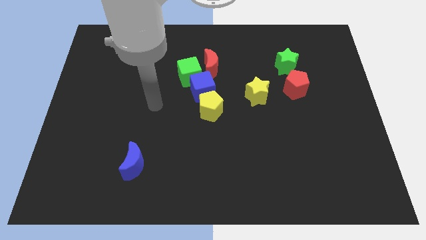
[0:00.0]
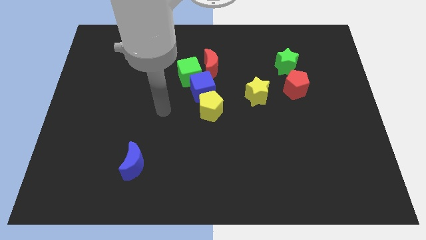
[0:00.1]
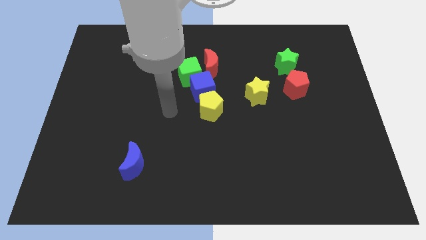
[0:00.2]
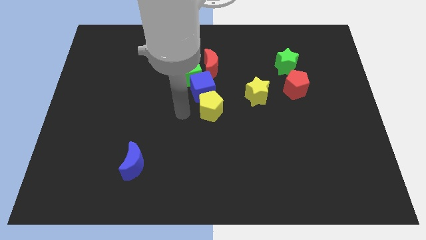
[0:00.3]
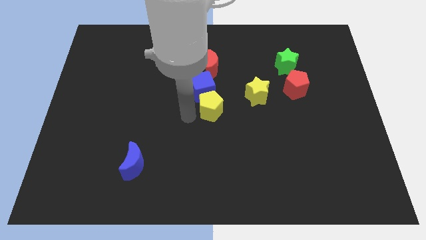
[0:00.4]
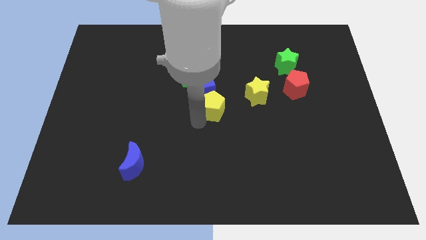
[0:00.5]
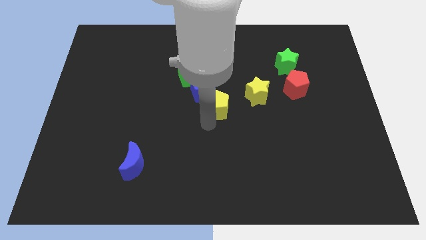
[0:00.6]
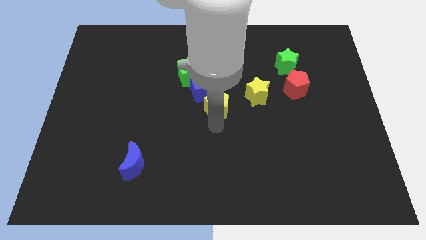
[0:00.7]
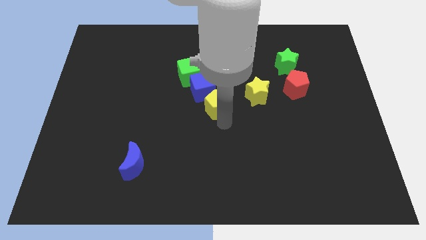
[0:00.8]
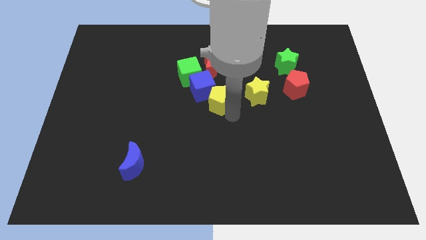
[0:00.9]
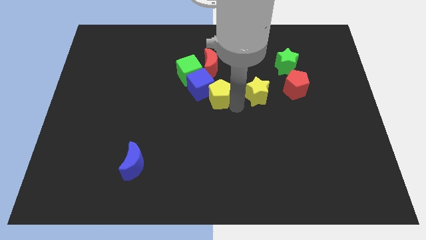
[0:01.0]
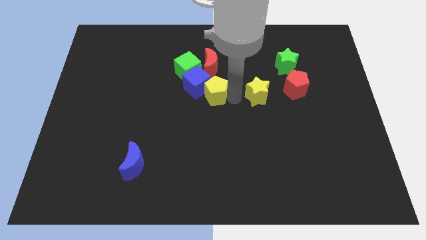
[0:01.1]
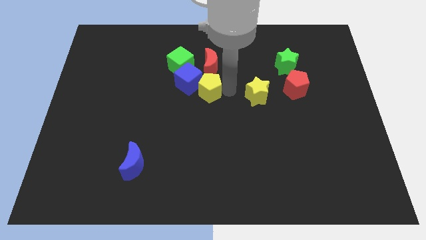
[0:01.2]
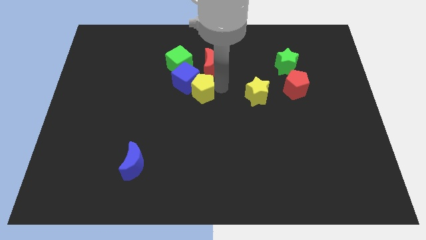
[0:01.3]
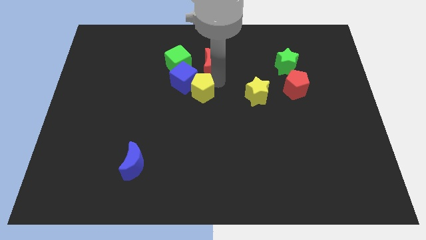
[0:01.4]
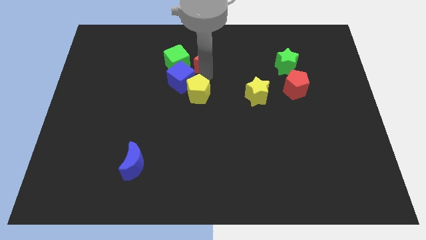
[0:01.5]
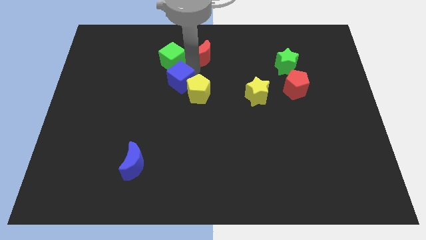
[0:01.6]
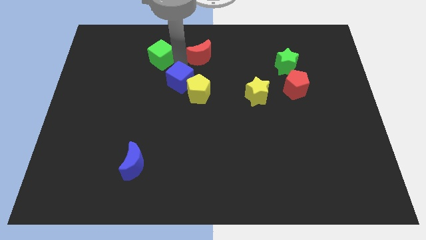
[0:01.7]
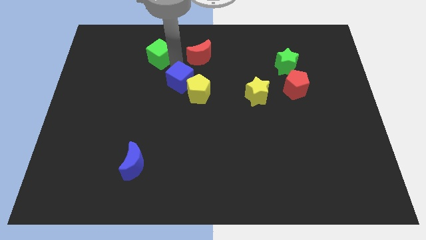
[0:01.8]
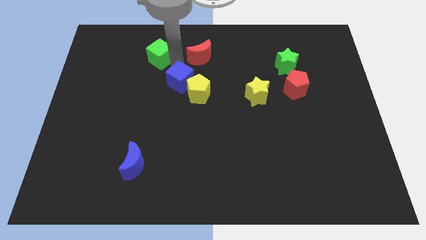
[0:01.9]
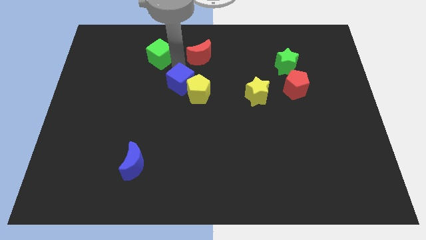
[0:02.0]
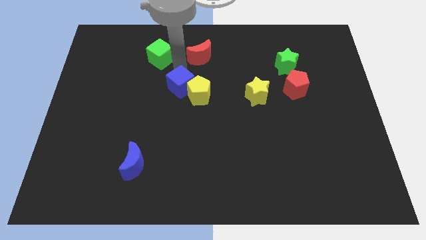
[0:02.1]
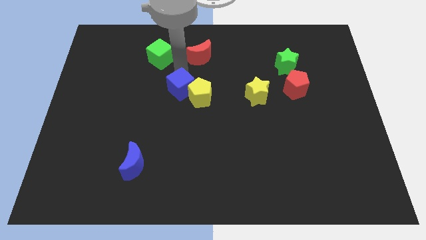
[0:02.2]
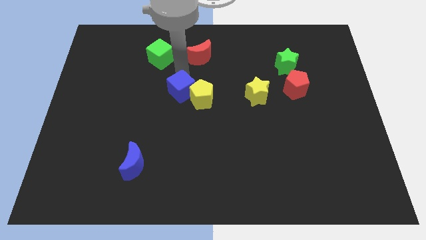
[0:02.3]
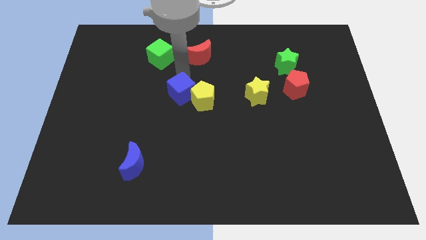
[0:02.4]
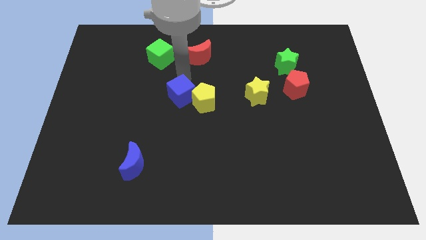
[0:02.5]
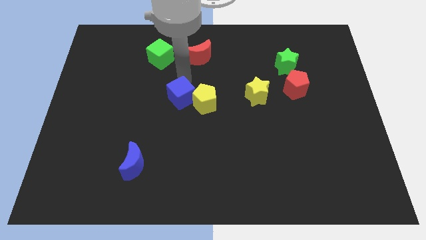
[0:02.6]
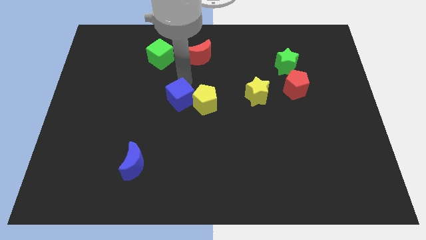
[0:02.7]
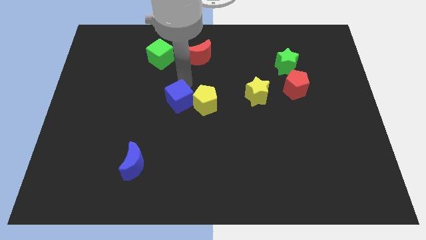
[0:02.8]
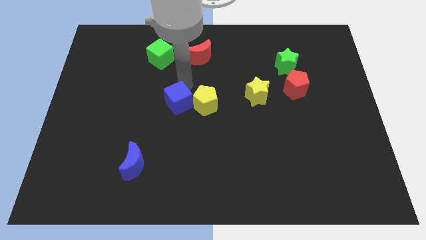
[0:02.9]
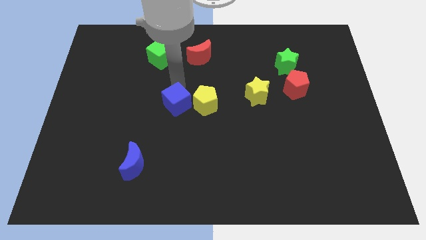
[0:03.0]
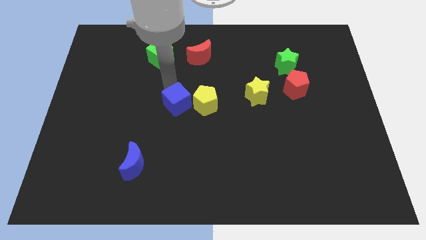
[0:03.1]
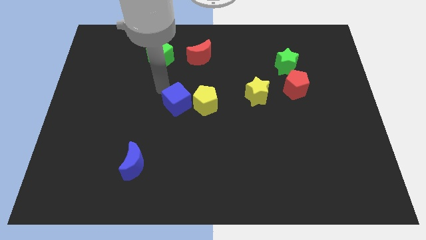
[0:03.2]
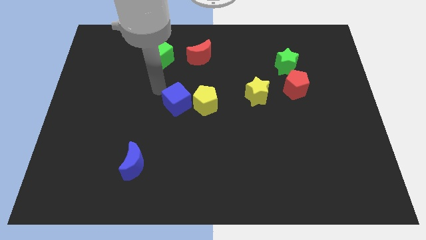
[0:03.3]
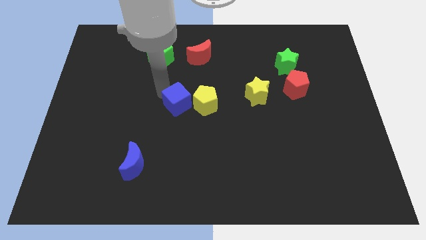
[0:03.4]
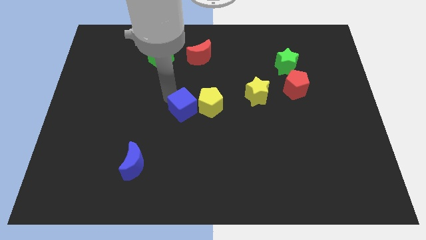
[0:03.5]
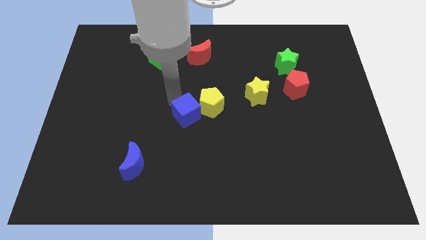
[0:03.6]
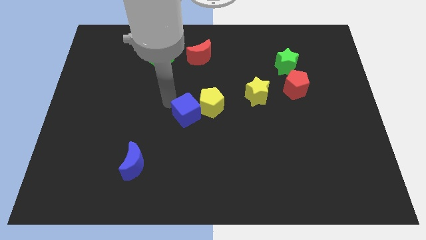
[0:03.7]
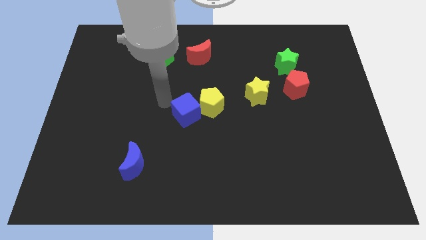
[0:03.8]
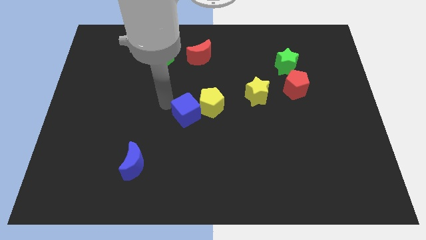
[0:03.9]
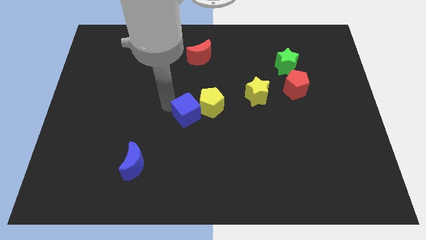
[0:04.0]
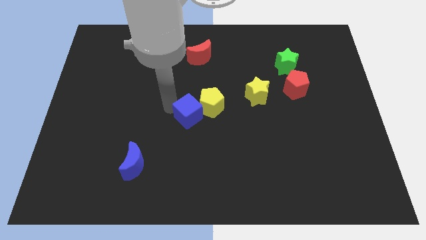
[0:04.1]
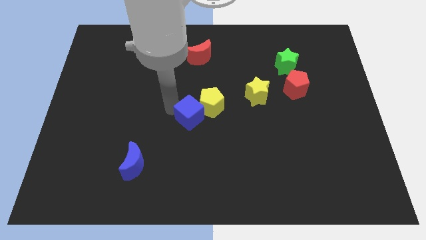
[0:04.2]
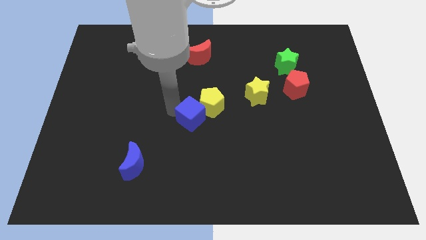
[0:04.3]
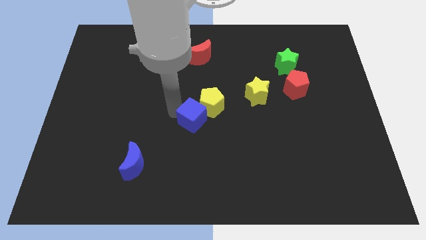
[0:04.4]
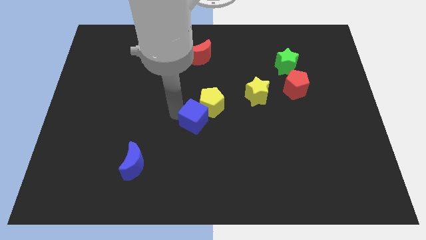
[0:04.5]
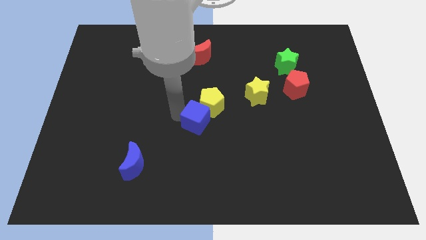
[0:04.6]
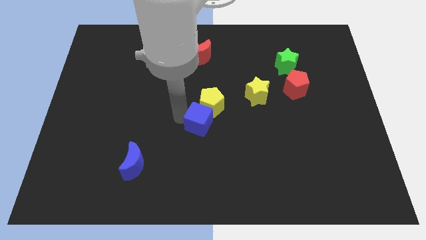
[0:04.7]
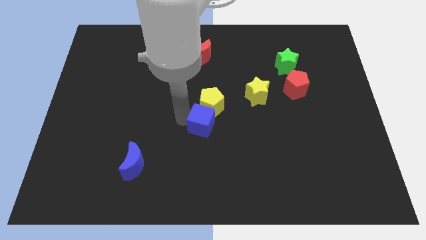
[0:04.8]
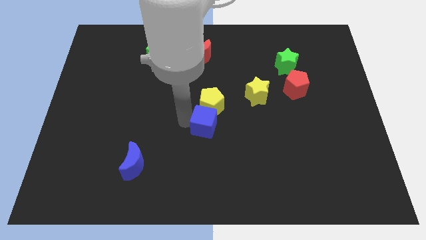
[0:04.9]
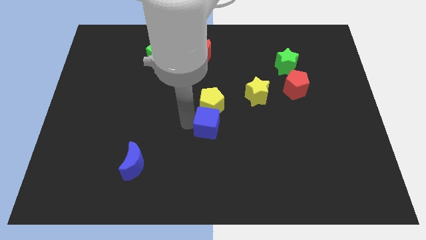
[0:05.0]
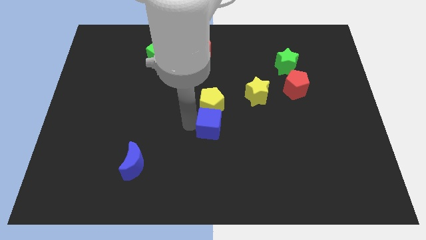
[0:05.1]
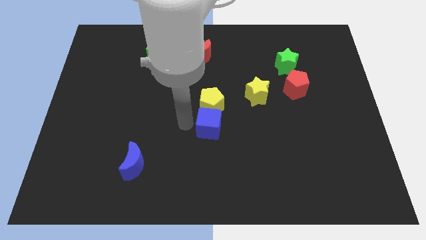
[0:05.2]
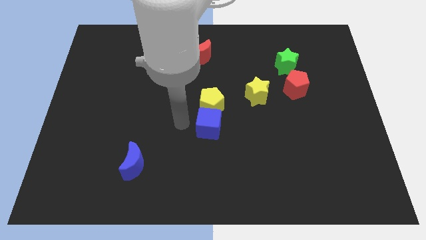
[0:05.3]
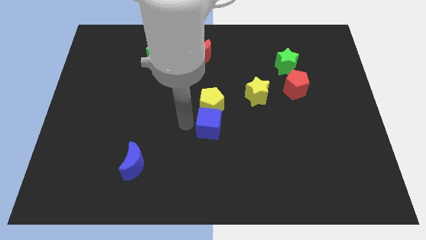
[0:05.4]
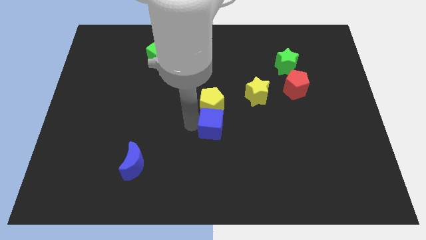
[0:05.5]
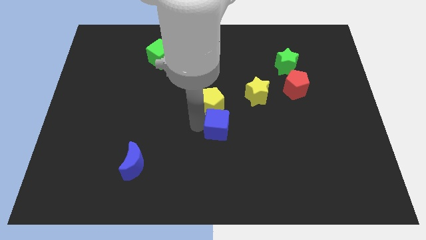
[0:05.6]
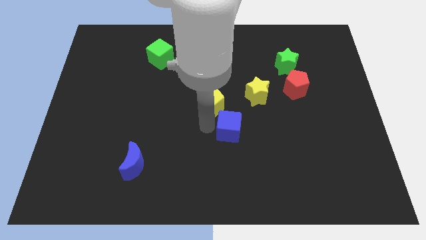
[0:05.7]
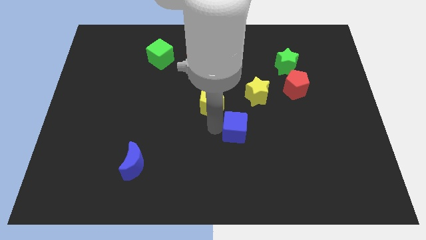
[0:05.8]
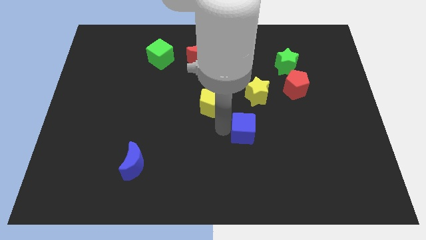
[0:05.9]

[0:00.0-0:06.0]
put the blue cube to the bottom side of the yellow star

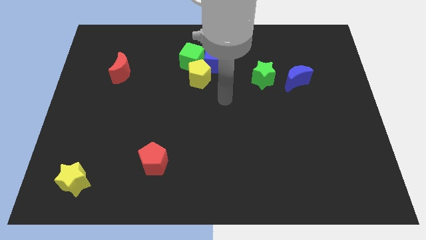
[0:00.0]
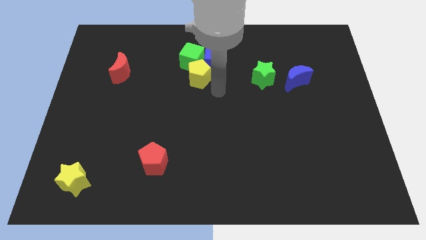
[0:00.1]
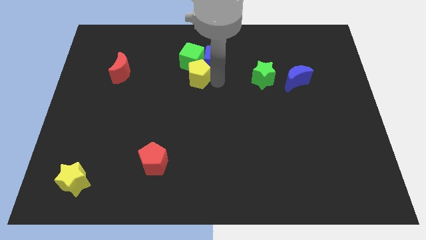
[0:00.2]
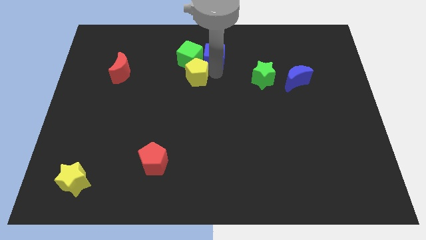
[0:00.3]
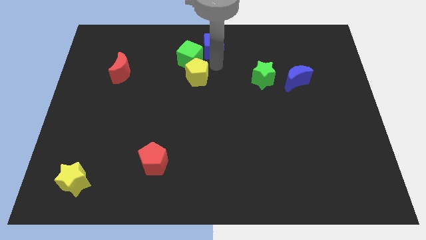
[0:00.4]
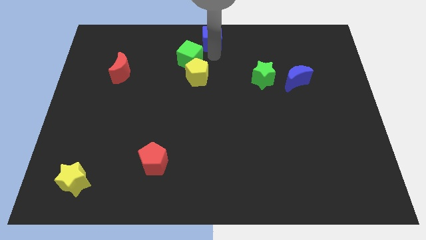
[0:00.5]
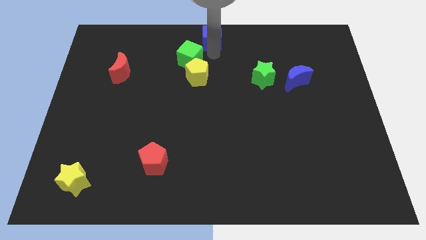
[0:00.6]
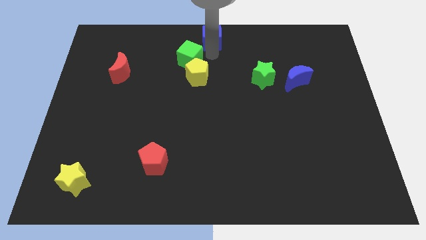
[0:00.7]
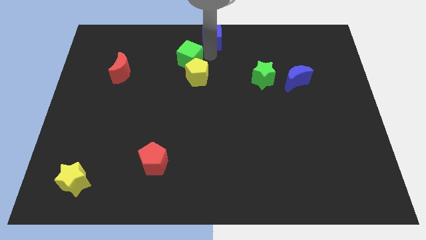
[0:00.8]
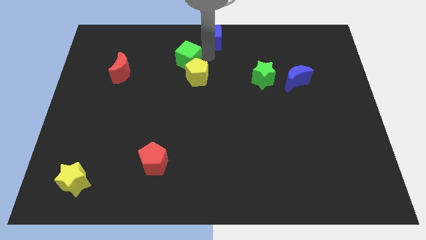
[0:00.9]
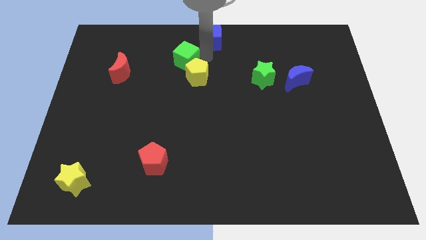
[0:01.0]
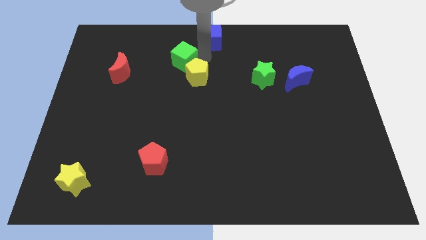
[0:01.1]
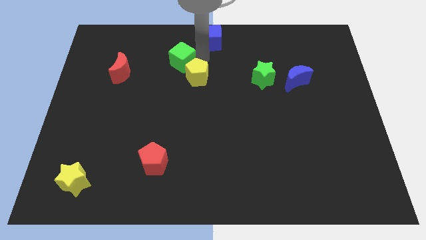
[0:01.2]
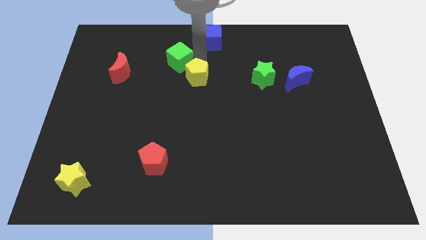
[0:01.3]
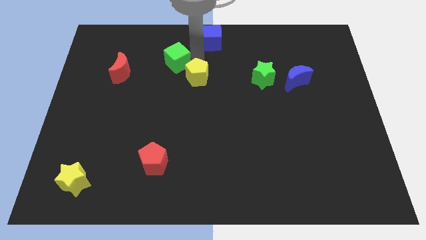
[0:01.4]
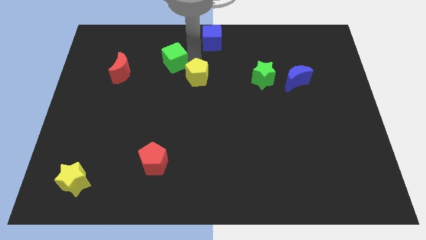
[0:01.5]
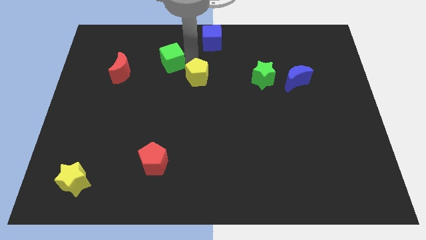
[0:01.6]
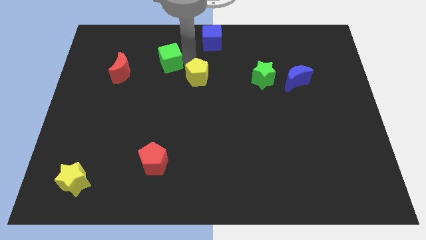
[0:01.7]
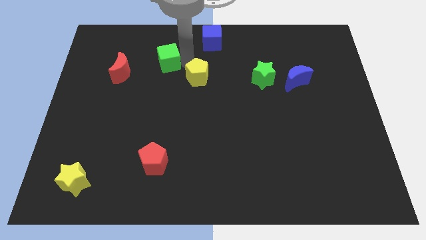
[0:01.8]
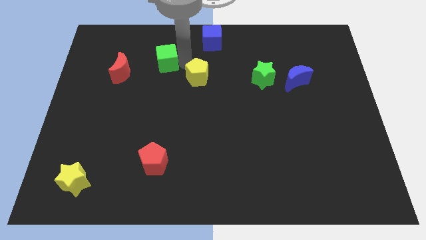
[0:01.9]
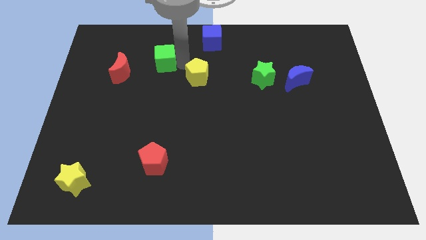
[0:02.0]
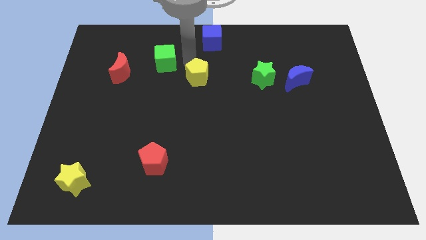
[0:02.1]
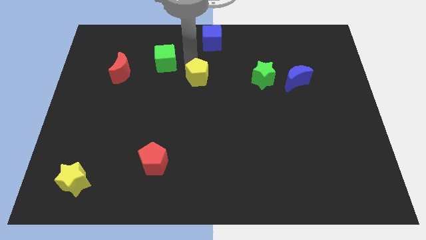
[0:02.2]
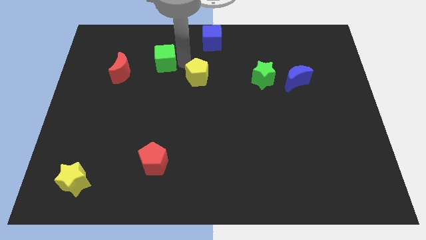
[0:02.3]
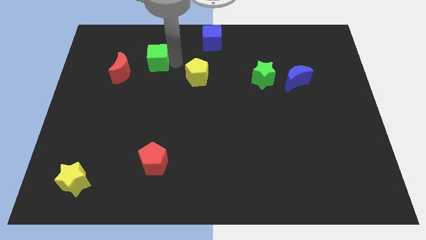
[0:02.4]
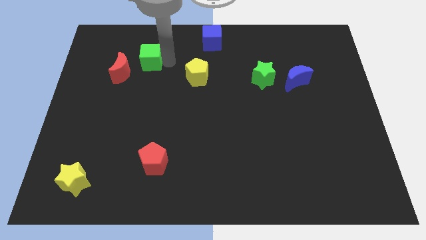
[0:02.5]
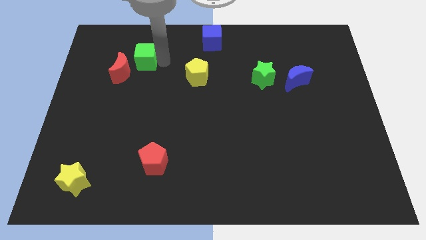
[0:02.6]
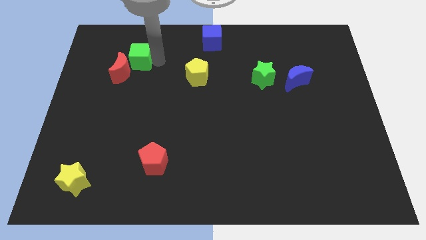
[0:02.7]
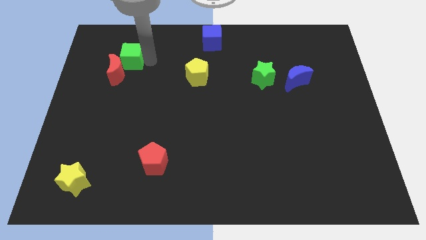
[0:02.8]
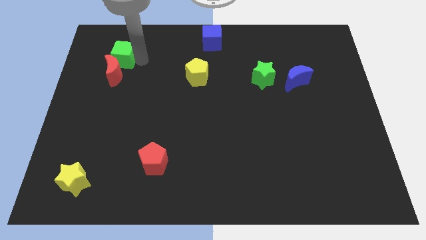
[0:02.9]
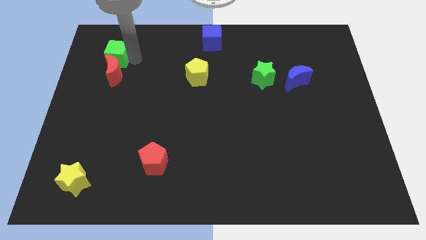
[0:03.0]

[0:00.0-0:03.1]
push the green cube to the top left side of the red moon
